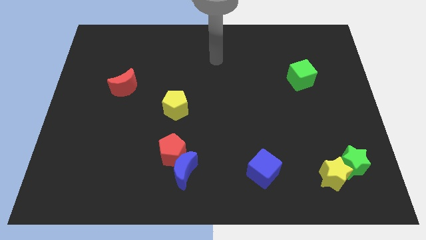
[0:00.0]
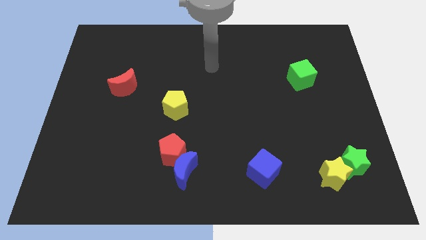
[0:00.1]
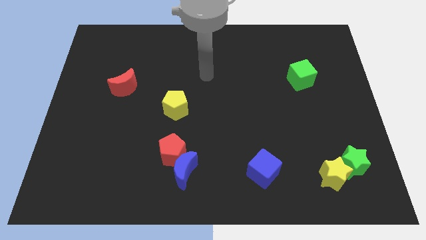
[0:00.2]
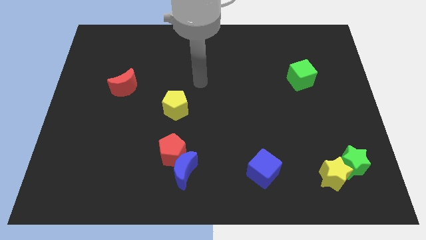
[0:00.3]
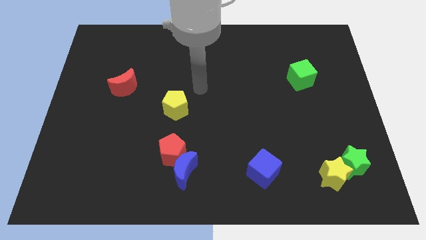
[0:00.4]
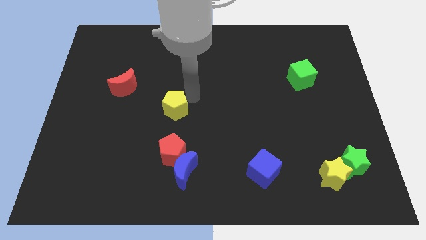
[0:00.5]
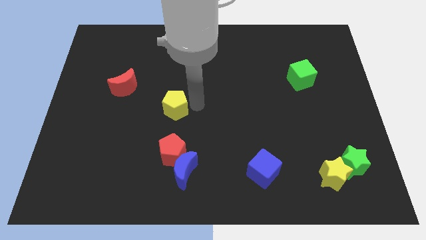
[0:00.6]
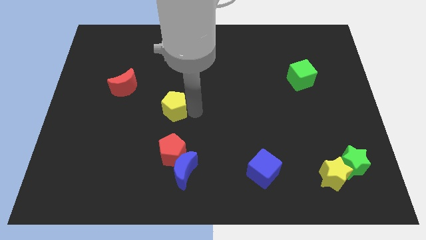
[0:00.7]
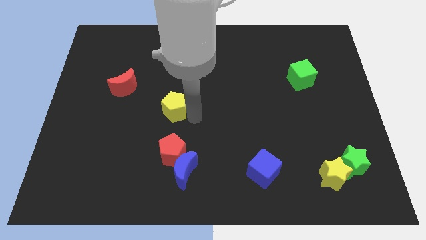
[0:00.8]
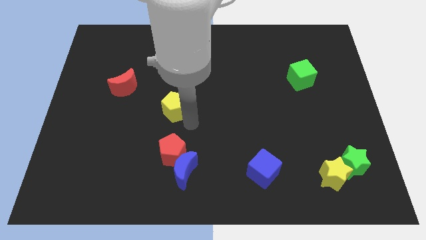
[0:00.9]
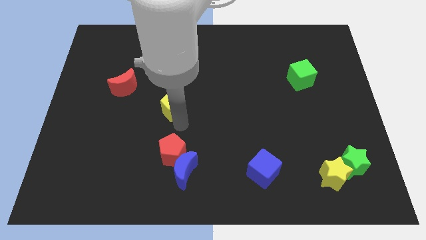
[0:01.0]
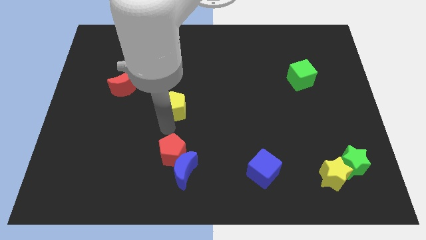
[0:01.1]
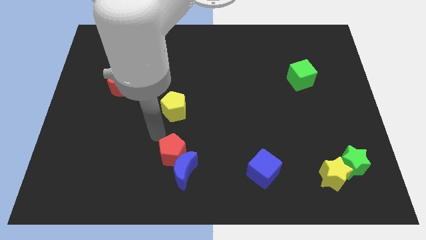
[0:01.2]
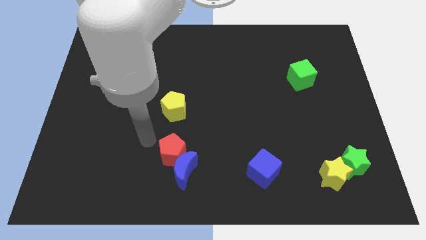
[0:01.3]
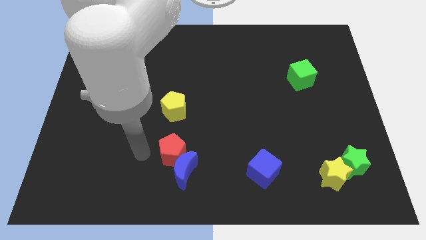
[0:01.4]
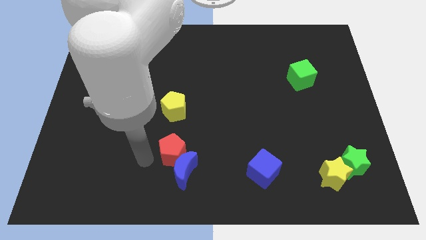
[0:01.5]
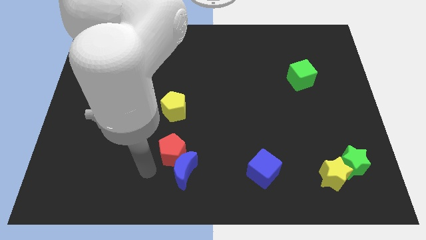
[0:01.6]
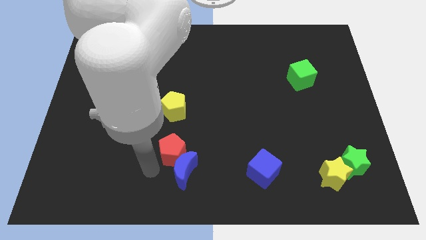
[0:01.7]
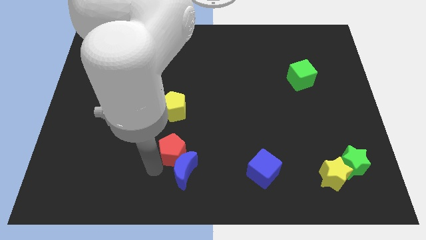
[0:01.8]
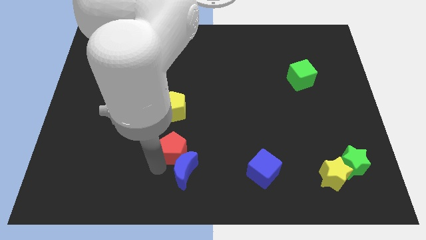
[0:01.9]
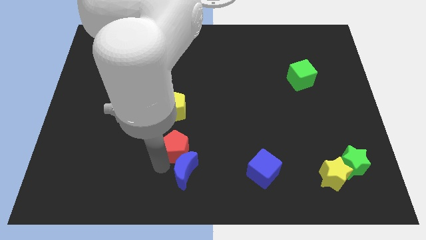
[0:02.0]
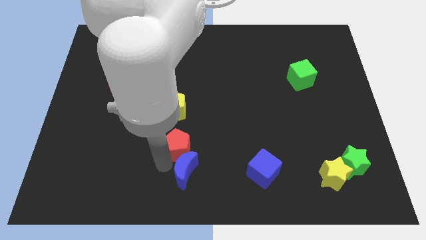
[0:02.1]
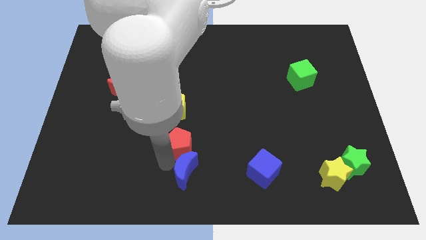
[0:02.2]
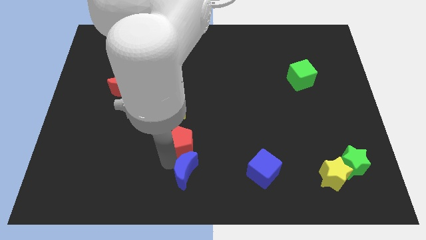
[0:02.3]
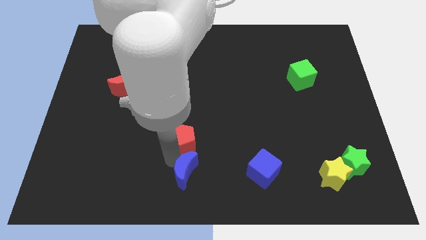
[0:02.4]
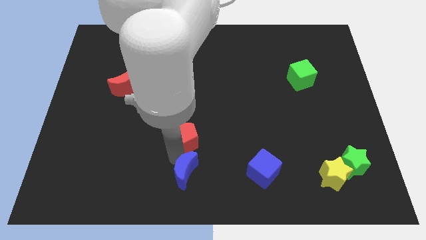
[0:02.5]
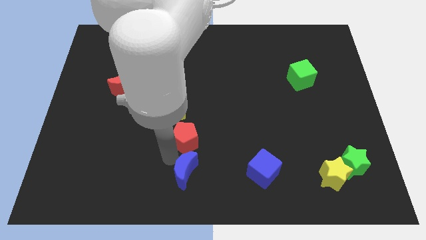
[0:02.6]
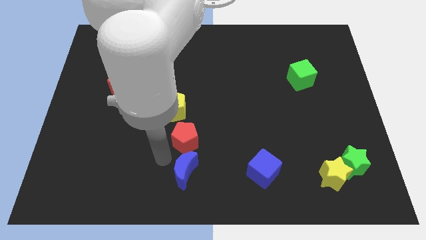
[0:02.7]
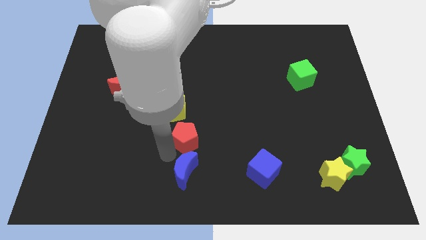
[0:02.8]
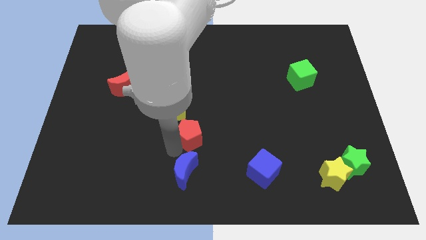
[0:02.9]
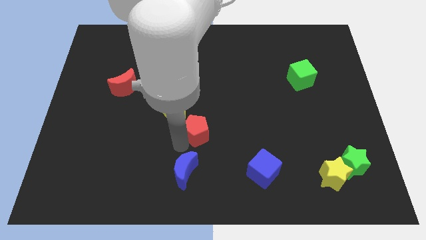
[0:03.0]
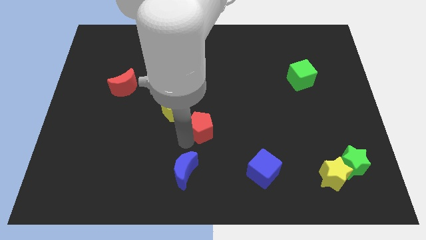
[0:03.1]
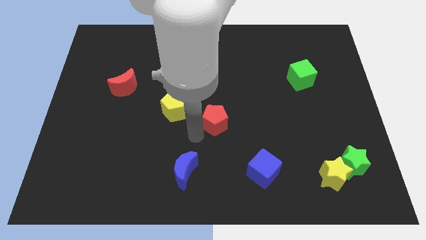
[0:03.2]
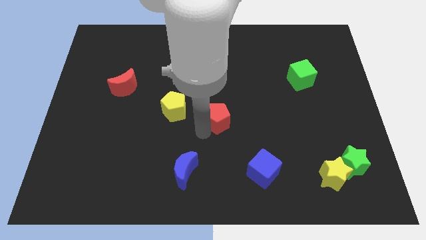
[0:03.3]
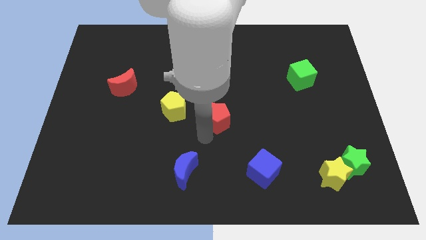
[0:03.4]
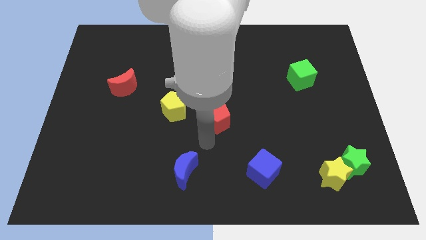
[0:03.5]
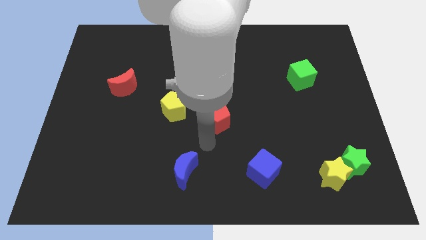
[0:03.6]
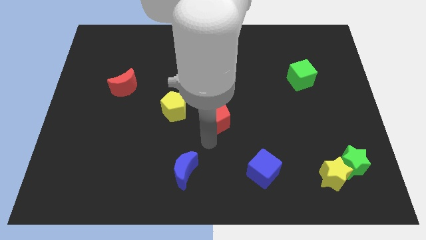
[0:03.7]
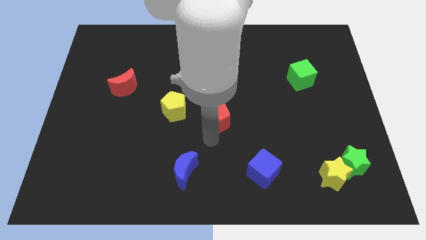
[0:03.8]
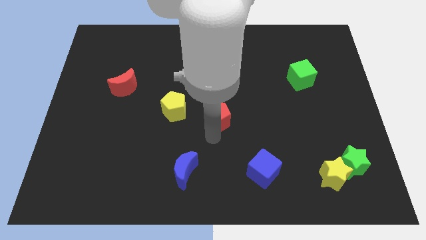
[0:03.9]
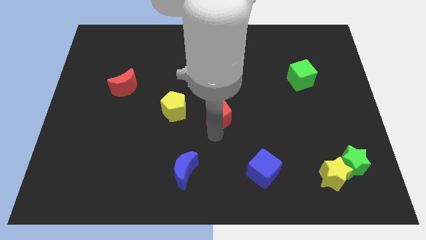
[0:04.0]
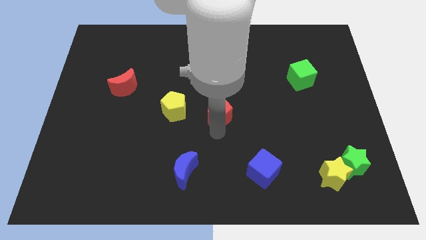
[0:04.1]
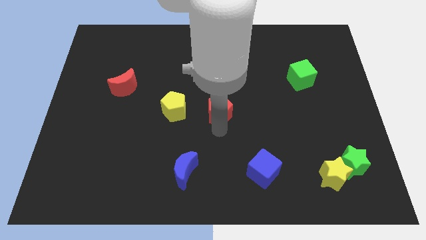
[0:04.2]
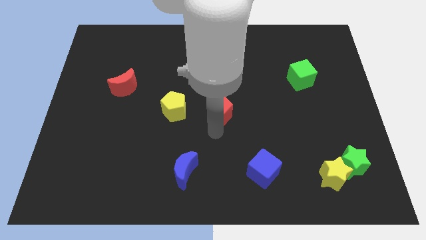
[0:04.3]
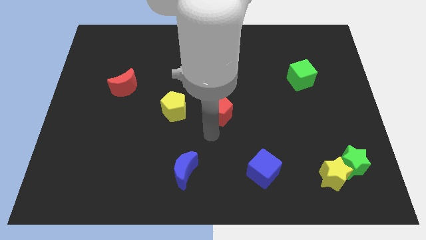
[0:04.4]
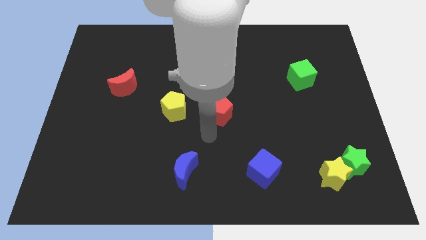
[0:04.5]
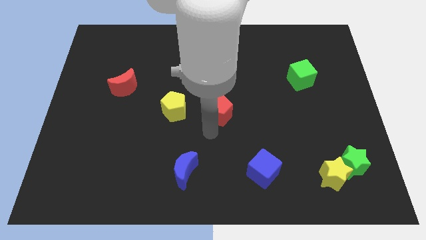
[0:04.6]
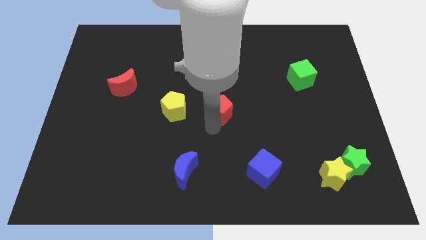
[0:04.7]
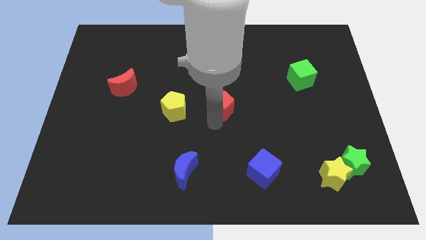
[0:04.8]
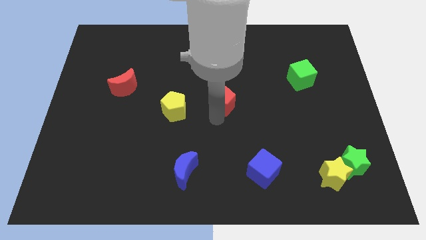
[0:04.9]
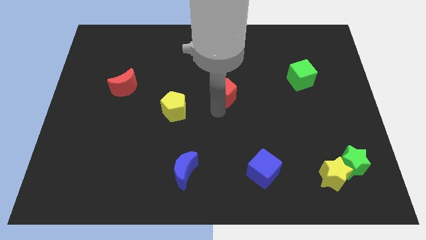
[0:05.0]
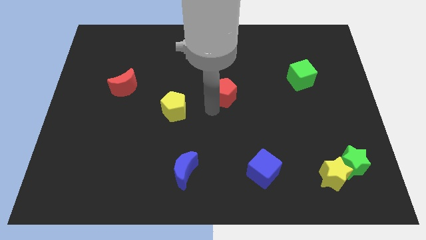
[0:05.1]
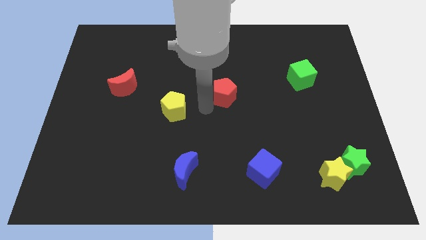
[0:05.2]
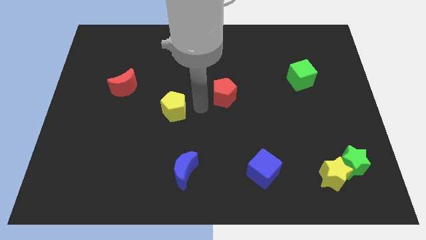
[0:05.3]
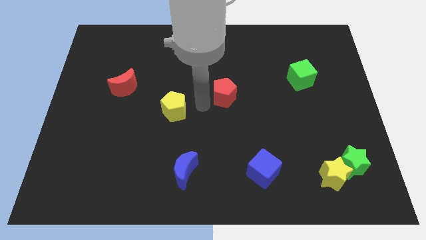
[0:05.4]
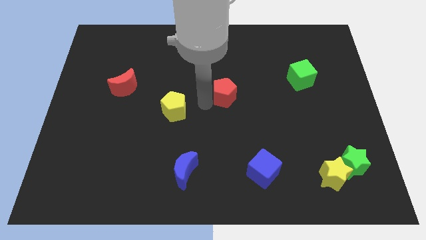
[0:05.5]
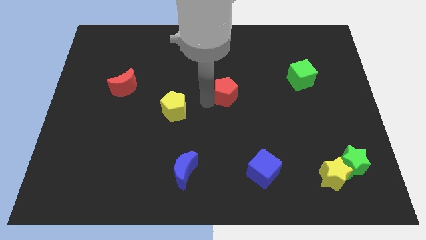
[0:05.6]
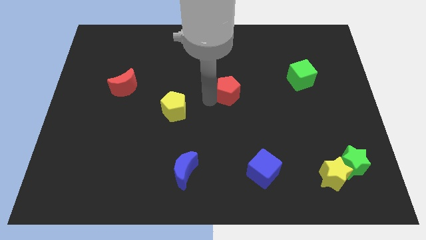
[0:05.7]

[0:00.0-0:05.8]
push the red pentagon up and to the right diagonally

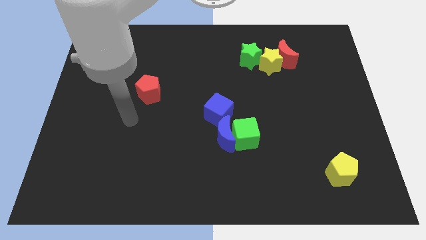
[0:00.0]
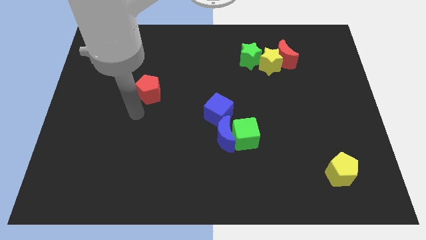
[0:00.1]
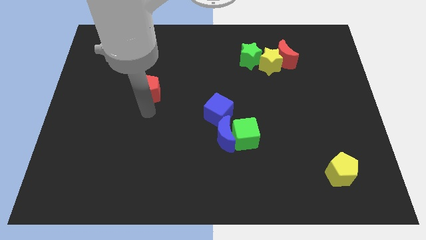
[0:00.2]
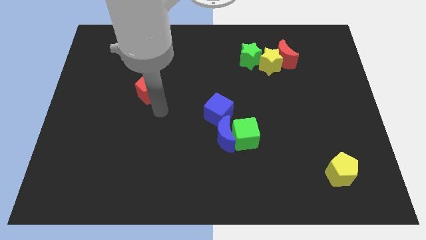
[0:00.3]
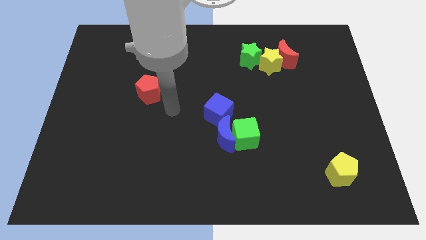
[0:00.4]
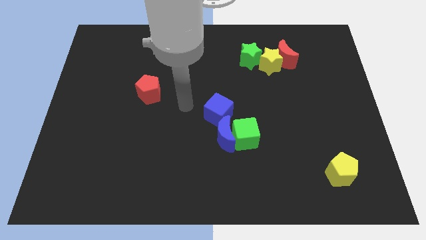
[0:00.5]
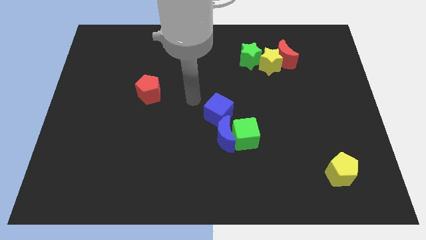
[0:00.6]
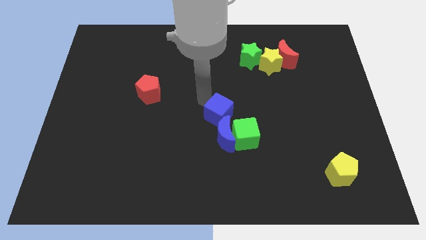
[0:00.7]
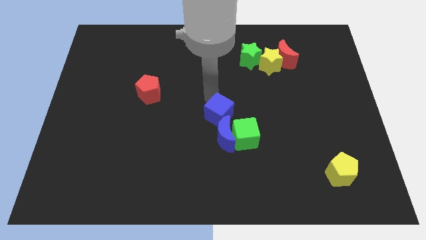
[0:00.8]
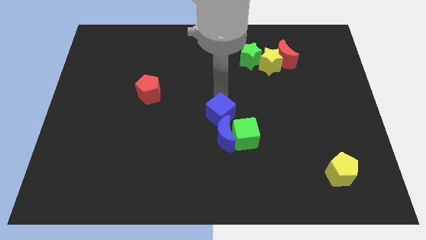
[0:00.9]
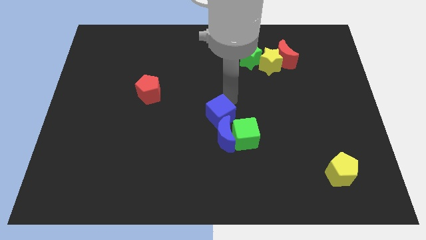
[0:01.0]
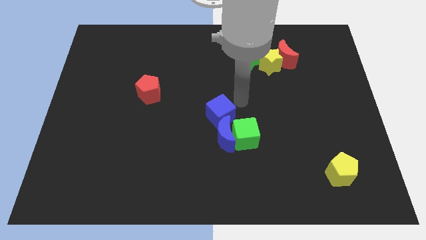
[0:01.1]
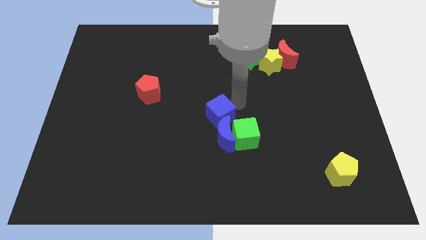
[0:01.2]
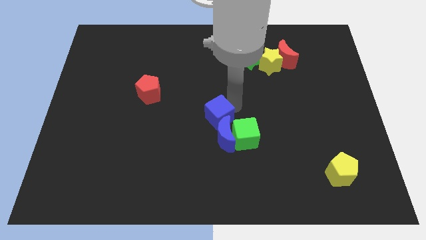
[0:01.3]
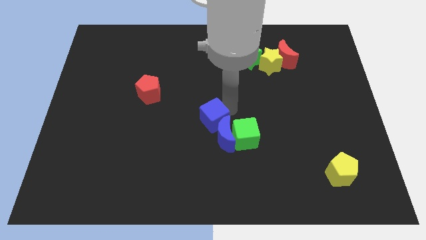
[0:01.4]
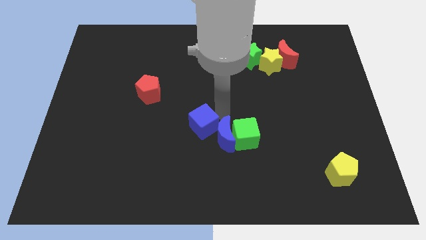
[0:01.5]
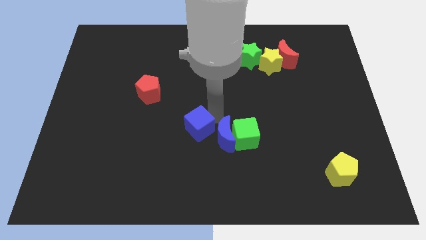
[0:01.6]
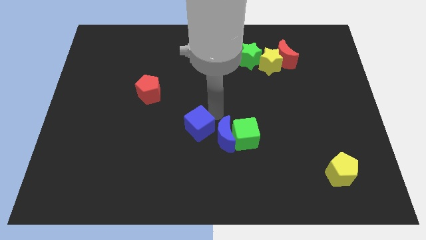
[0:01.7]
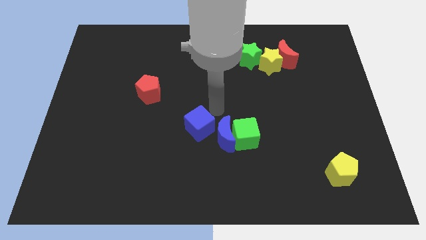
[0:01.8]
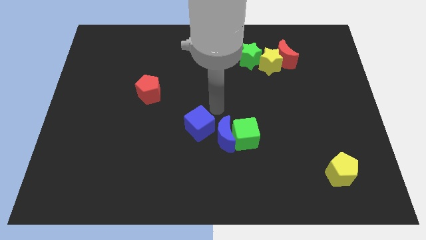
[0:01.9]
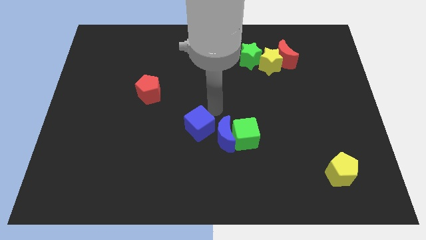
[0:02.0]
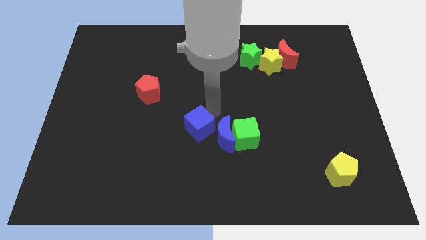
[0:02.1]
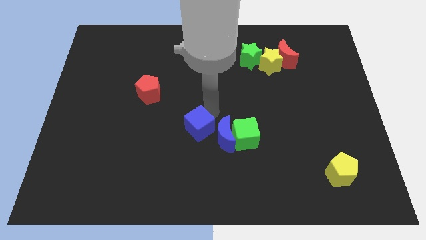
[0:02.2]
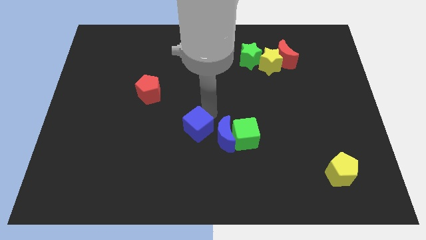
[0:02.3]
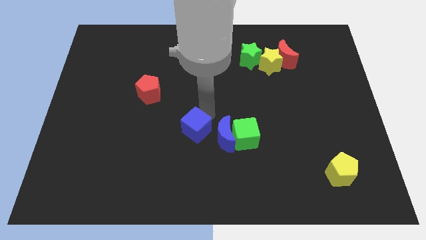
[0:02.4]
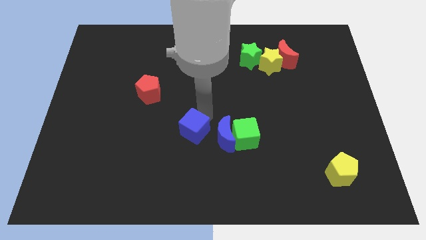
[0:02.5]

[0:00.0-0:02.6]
slide the blue cube downwards and left slightly
